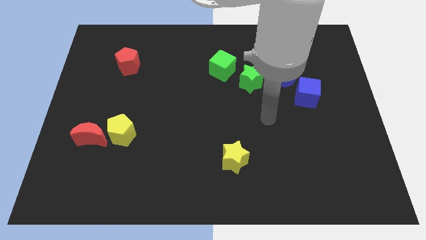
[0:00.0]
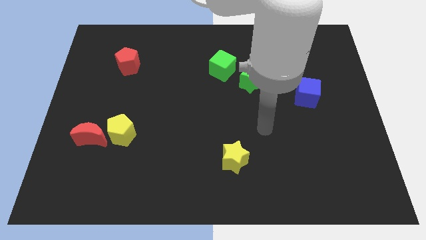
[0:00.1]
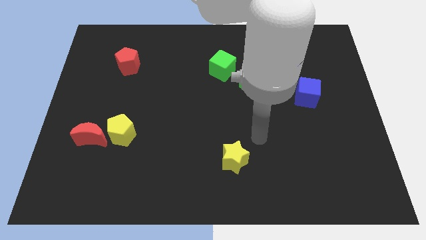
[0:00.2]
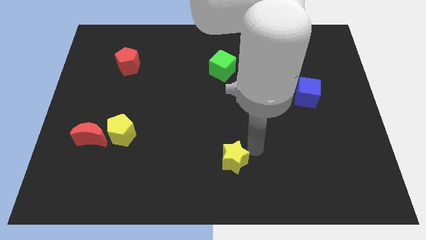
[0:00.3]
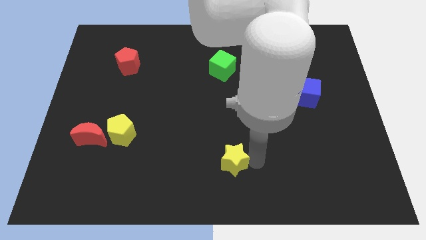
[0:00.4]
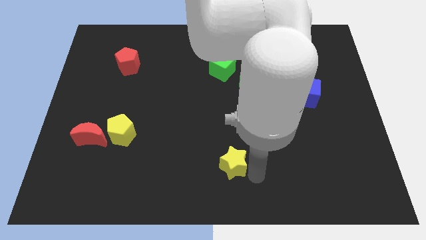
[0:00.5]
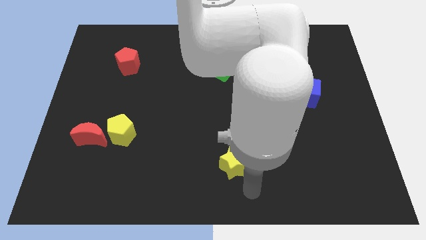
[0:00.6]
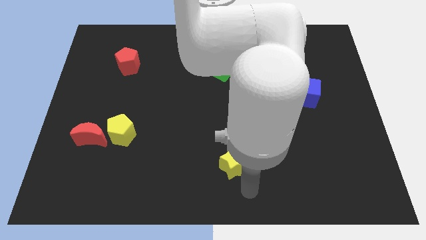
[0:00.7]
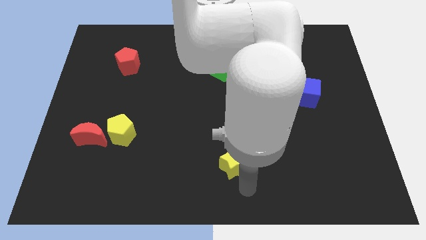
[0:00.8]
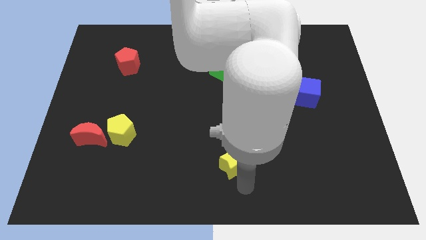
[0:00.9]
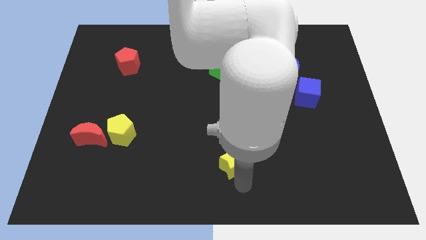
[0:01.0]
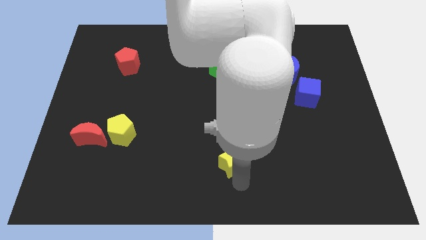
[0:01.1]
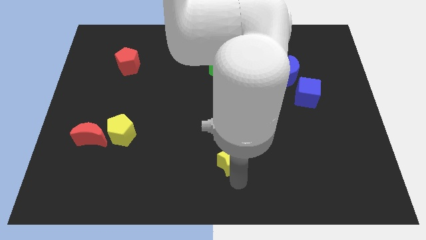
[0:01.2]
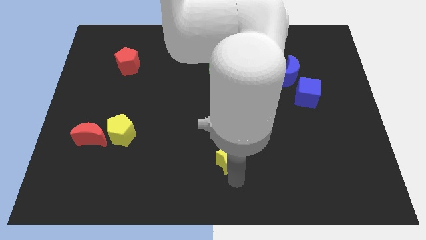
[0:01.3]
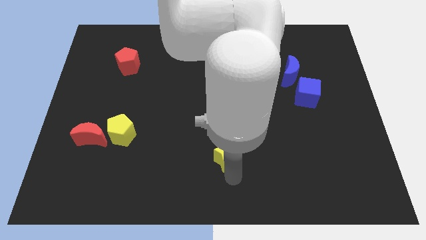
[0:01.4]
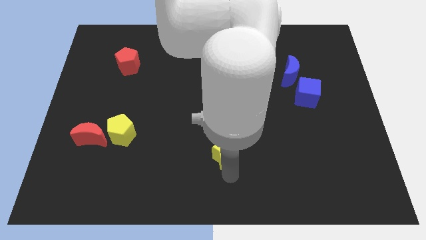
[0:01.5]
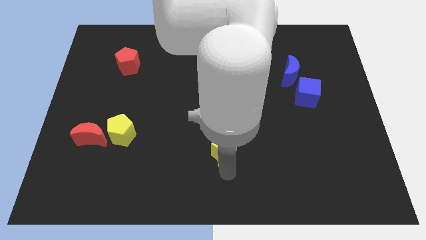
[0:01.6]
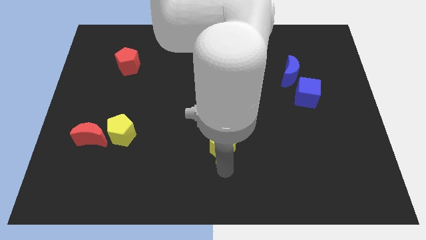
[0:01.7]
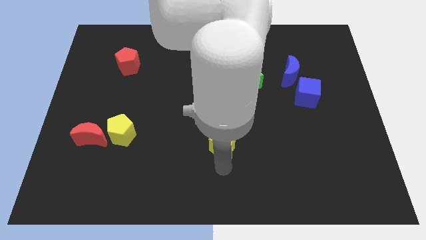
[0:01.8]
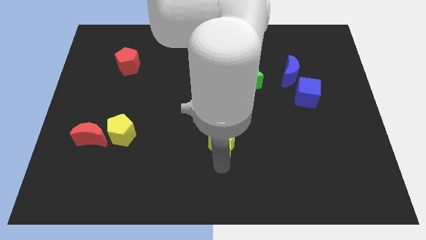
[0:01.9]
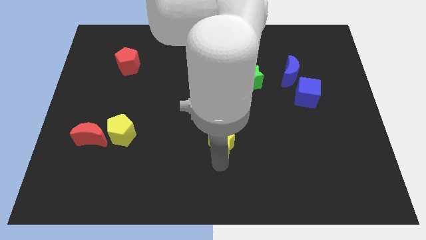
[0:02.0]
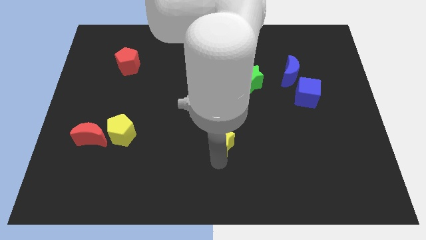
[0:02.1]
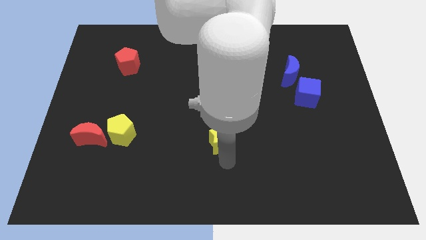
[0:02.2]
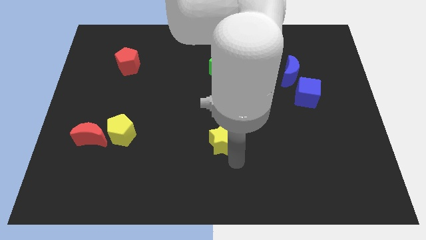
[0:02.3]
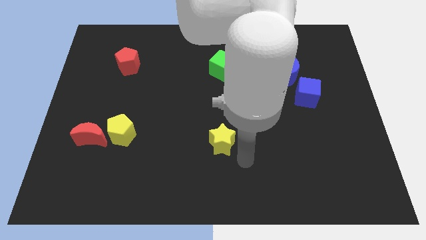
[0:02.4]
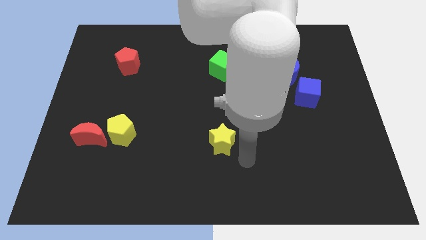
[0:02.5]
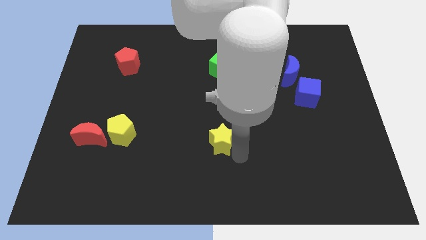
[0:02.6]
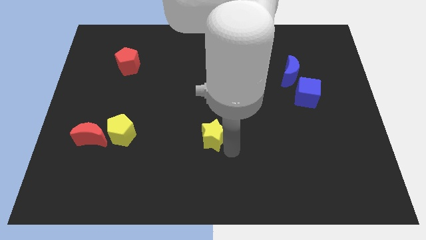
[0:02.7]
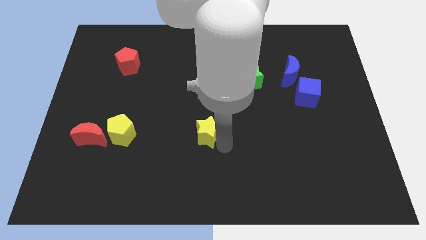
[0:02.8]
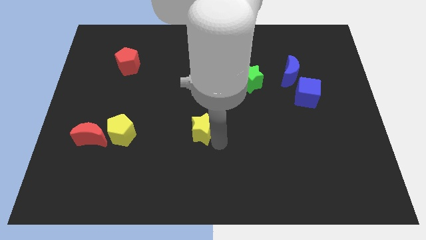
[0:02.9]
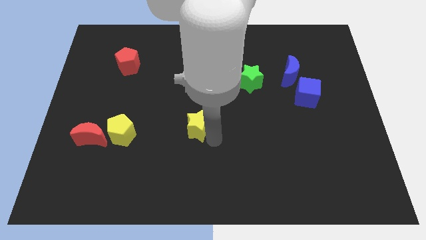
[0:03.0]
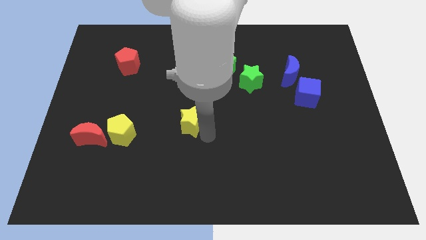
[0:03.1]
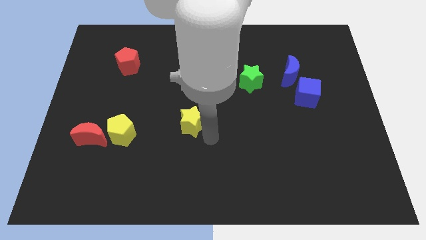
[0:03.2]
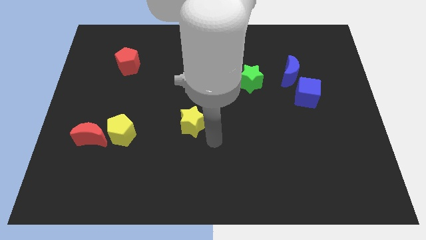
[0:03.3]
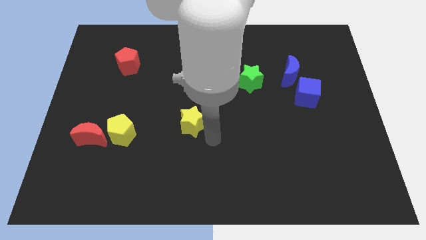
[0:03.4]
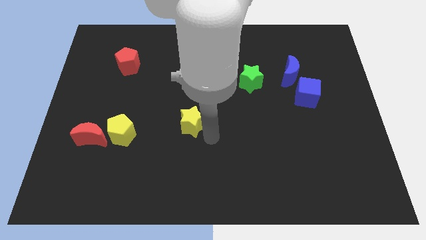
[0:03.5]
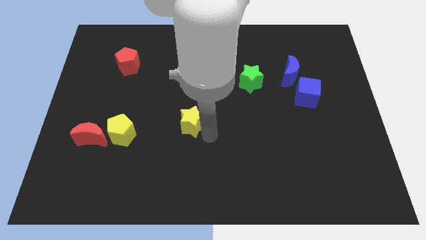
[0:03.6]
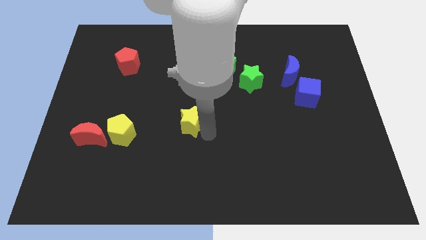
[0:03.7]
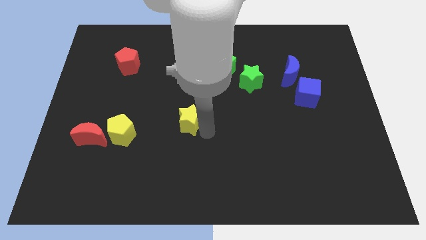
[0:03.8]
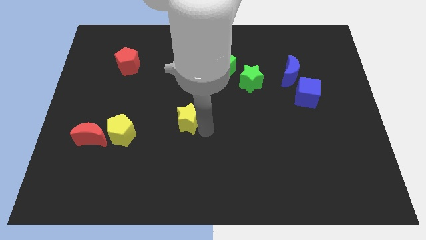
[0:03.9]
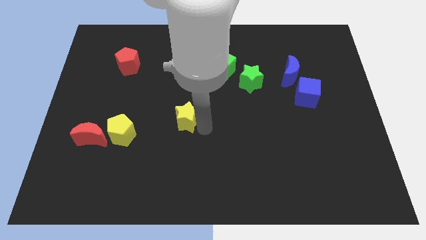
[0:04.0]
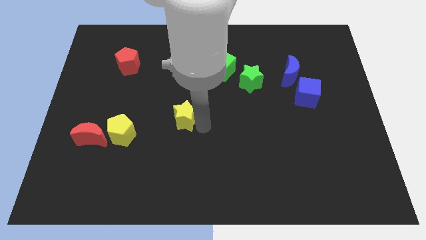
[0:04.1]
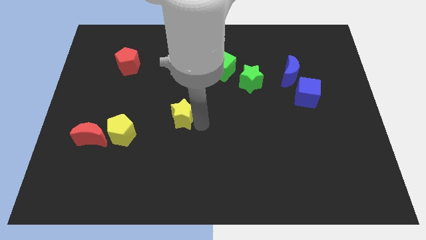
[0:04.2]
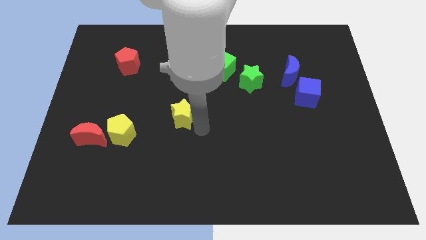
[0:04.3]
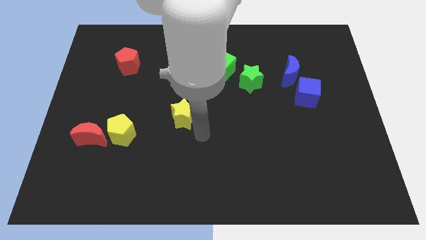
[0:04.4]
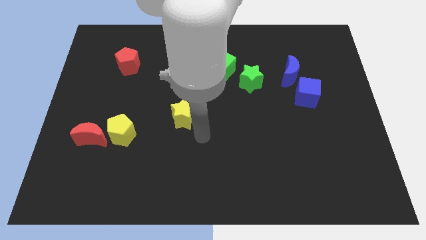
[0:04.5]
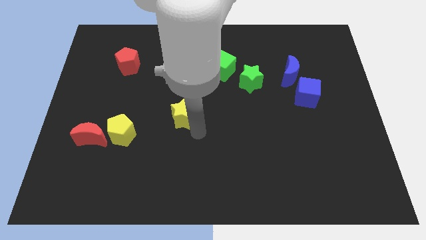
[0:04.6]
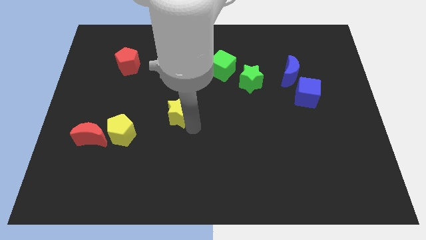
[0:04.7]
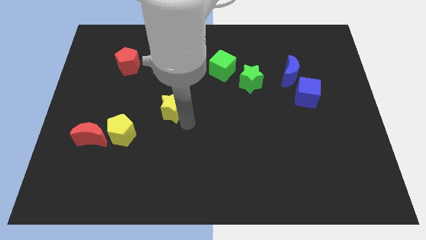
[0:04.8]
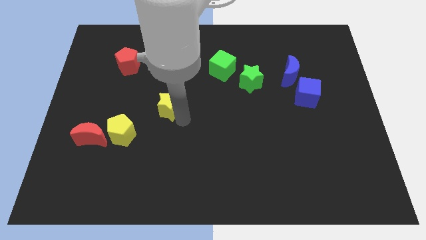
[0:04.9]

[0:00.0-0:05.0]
slide the yellow star upwards and left

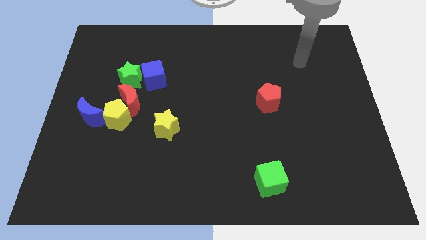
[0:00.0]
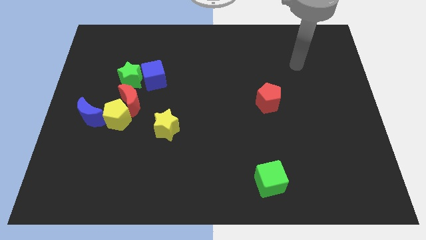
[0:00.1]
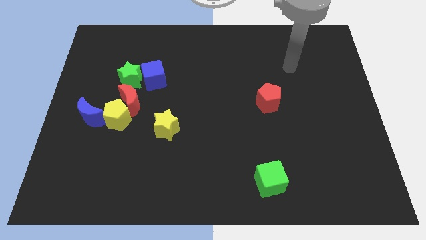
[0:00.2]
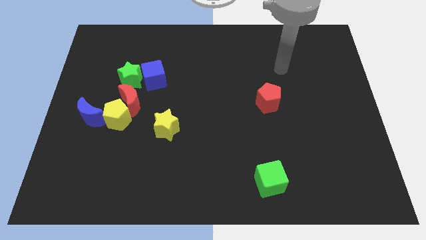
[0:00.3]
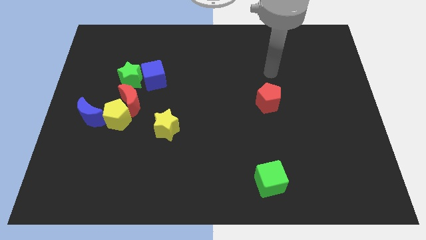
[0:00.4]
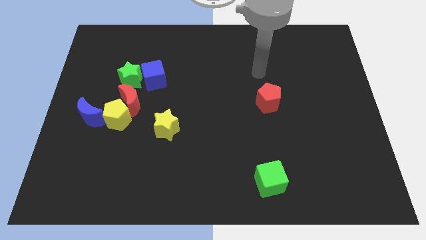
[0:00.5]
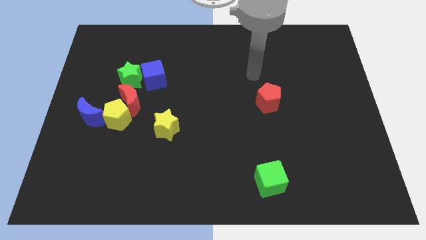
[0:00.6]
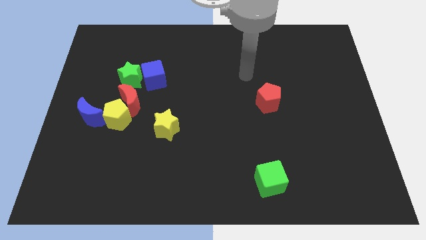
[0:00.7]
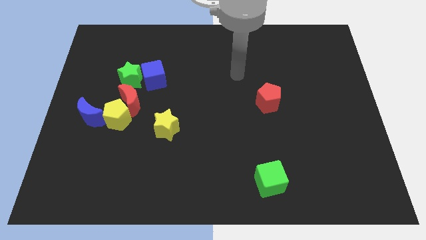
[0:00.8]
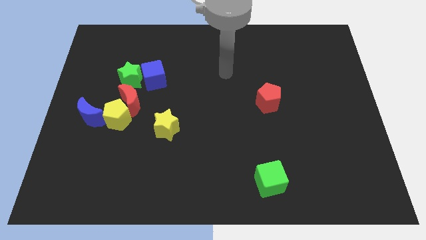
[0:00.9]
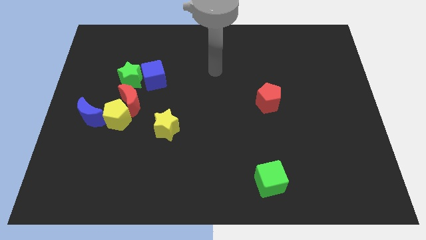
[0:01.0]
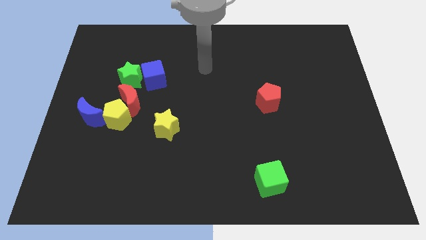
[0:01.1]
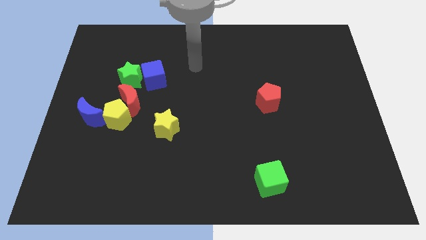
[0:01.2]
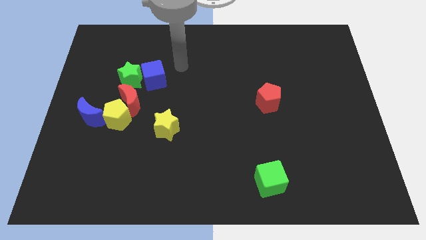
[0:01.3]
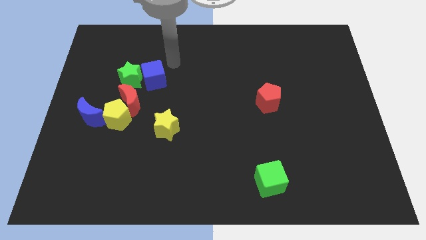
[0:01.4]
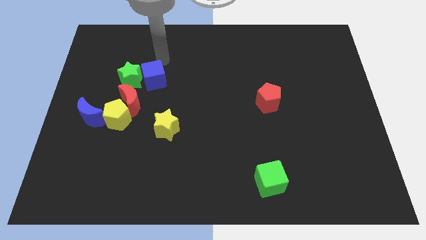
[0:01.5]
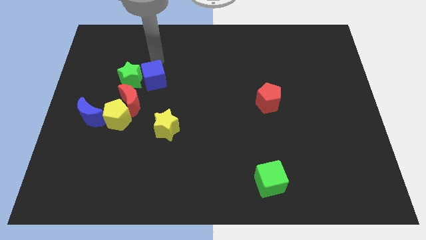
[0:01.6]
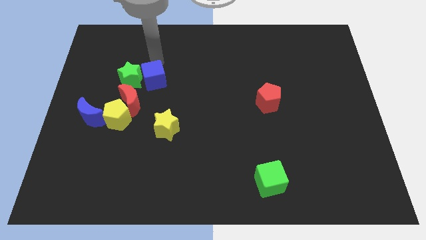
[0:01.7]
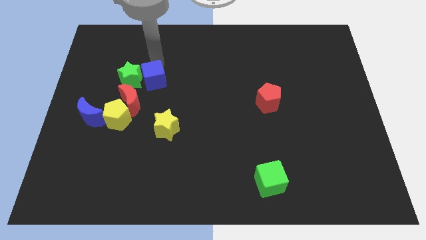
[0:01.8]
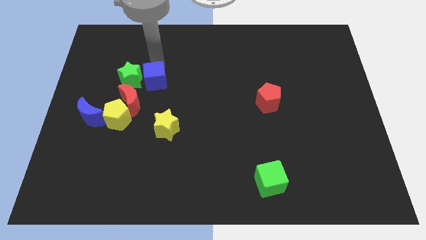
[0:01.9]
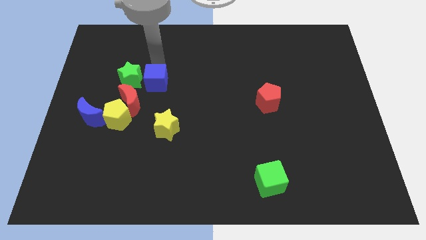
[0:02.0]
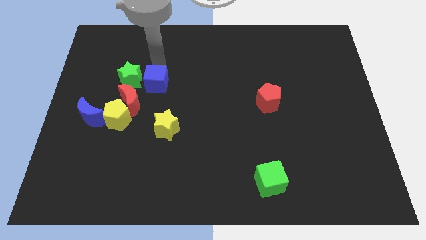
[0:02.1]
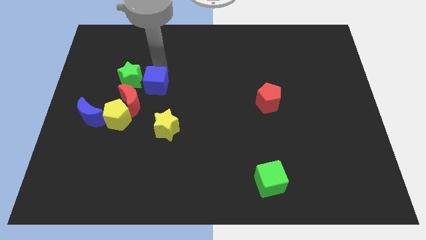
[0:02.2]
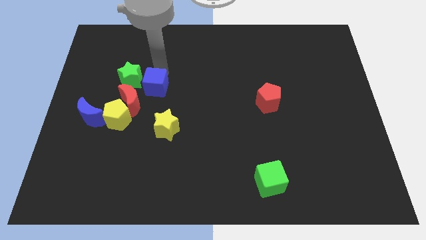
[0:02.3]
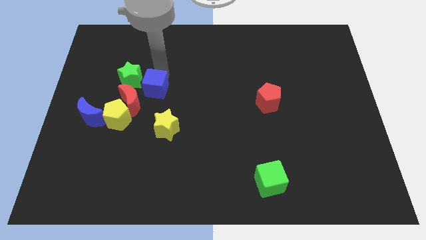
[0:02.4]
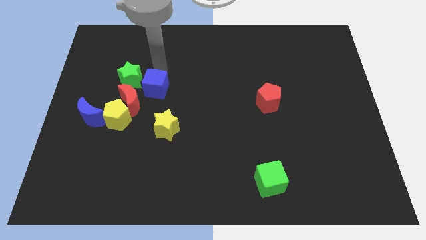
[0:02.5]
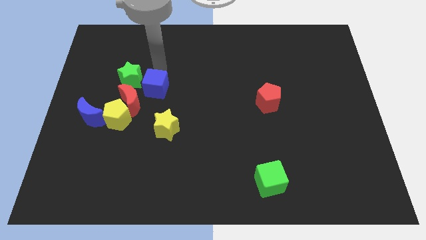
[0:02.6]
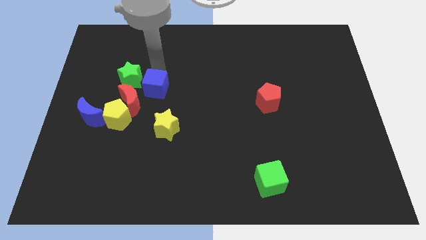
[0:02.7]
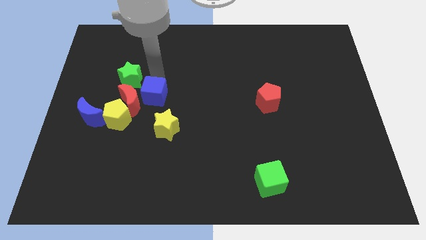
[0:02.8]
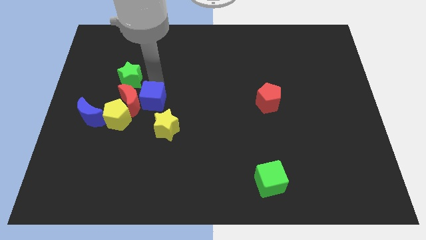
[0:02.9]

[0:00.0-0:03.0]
push the blue cube downwards a little bit

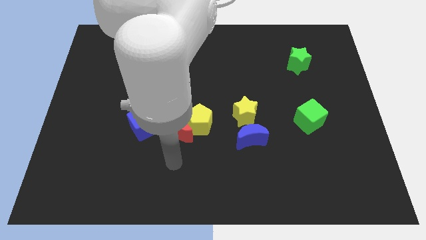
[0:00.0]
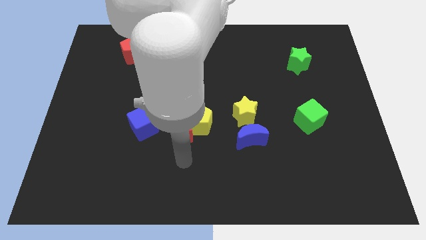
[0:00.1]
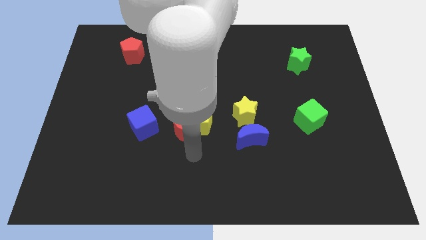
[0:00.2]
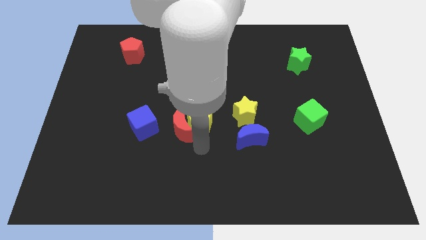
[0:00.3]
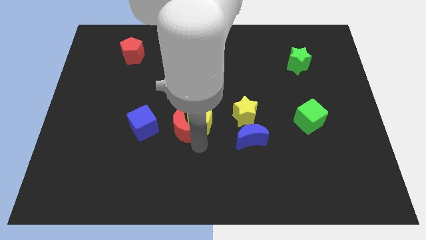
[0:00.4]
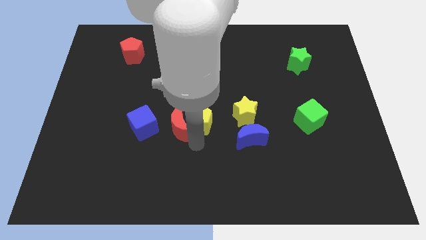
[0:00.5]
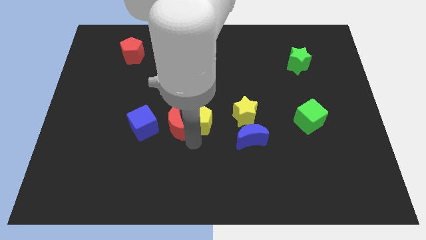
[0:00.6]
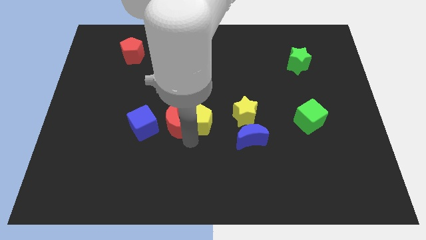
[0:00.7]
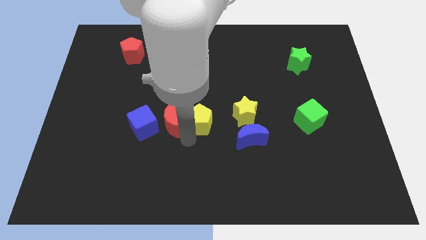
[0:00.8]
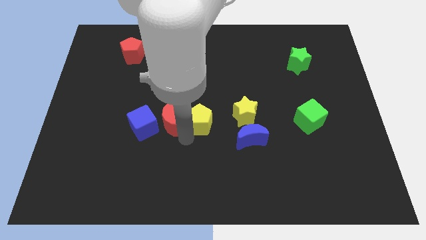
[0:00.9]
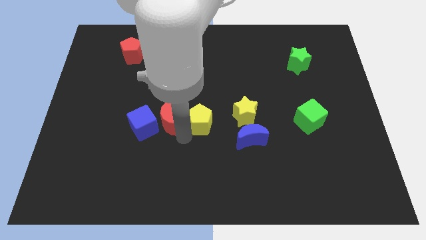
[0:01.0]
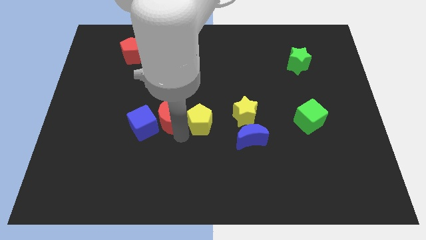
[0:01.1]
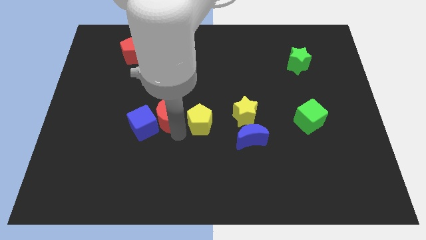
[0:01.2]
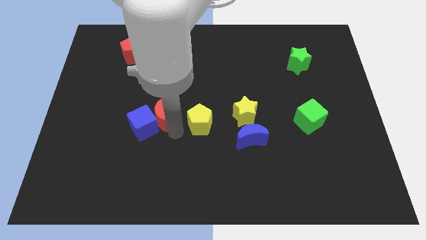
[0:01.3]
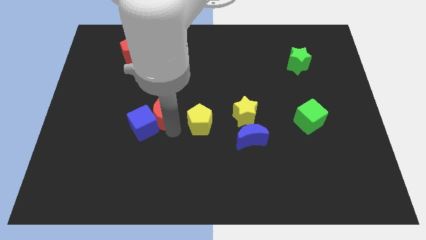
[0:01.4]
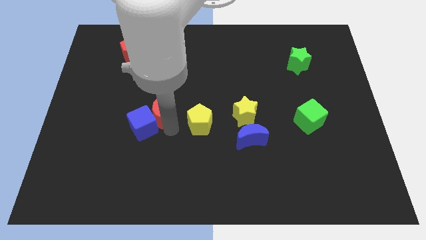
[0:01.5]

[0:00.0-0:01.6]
slide the red moon upwards and to the left somewhat
